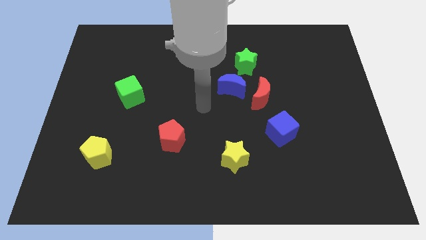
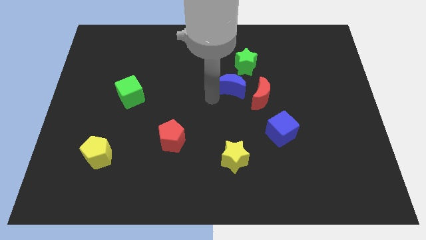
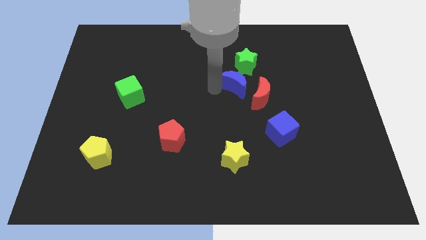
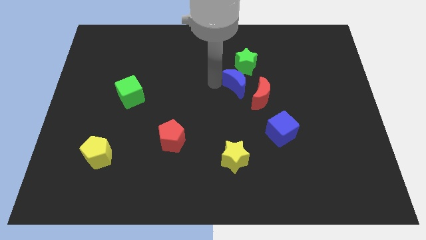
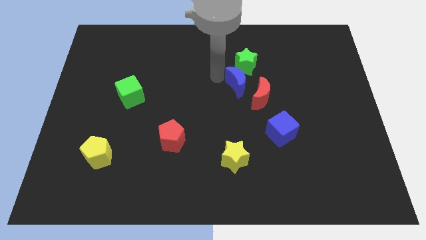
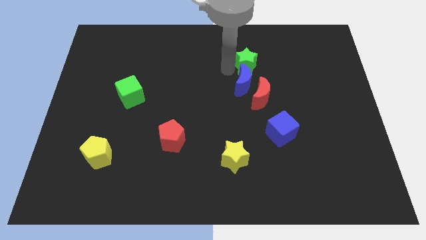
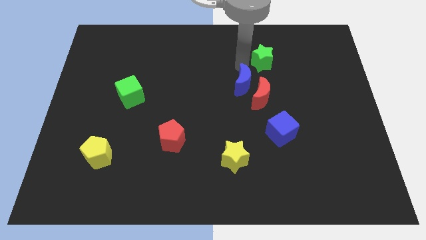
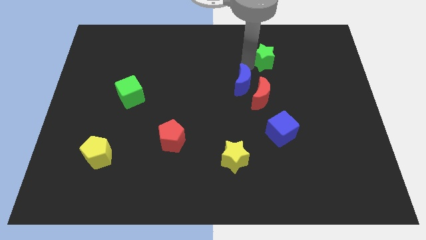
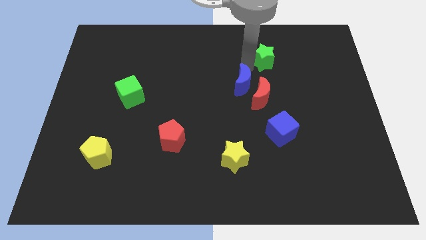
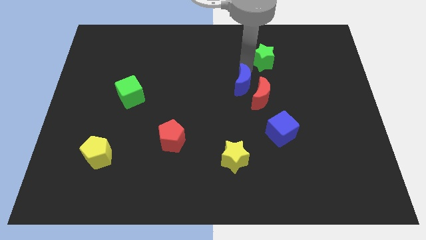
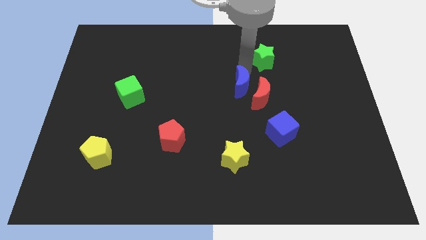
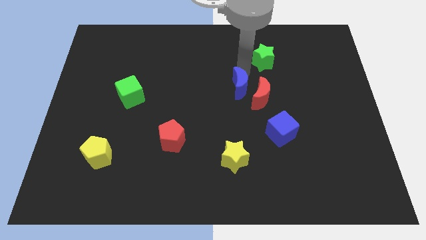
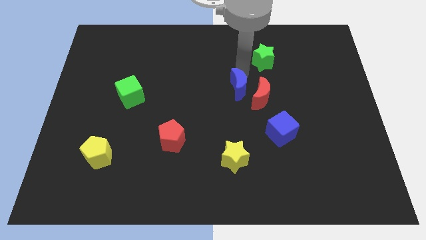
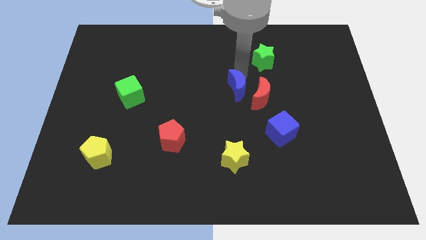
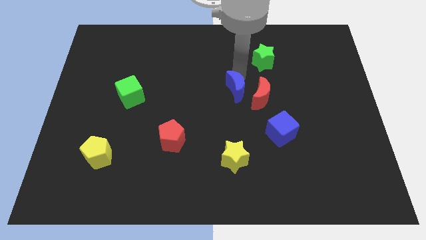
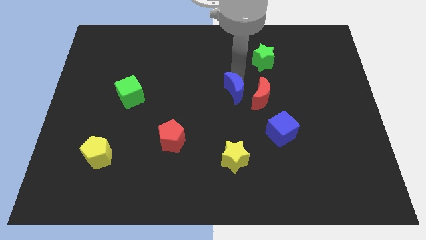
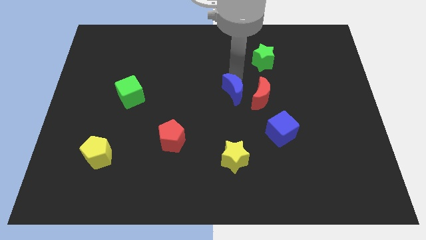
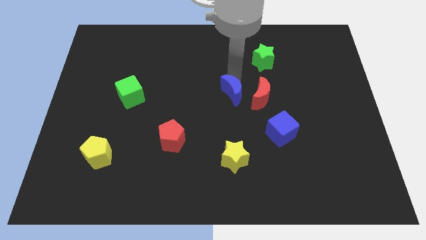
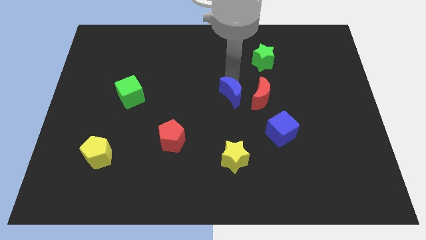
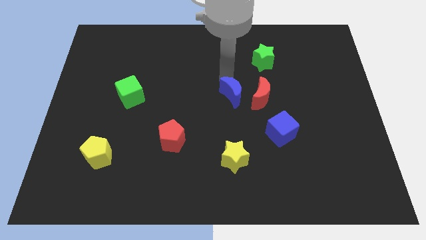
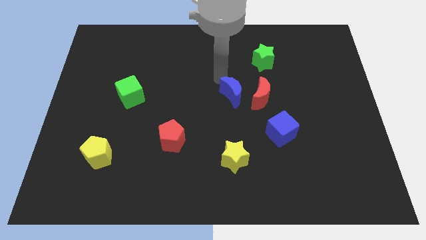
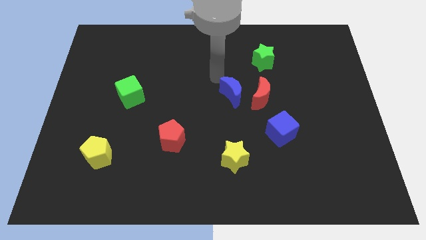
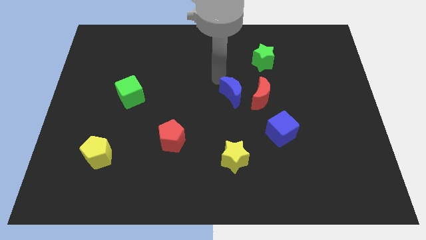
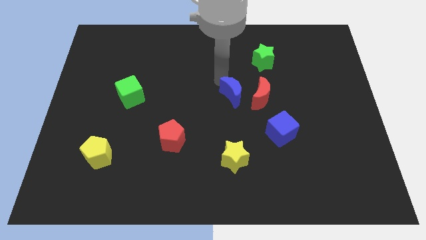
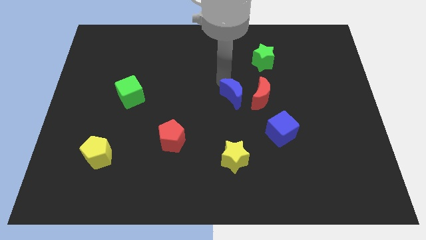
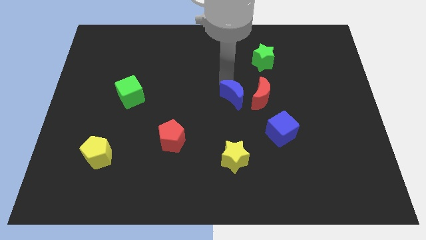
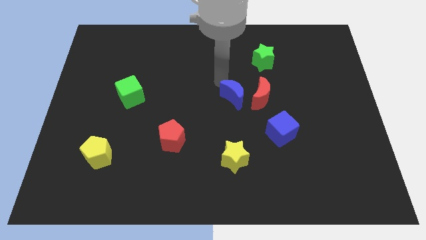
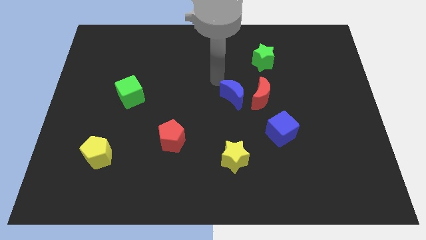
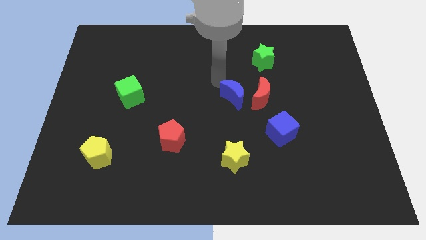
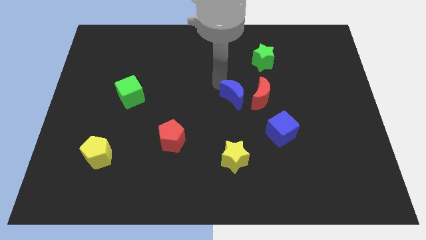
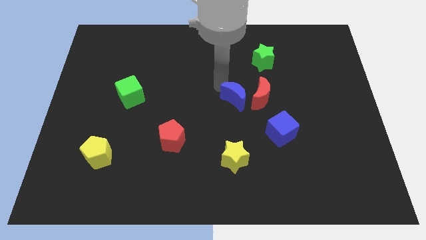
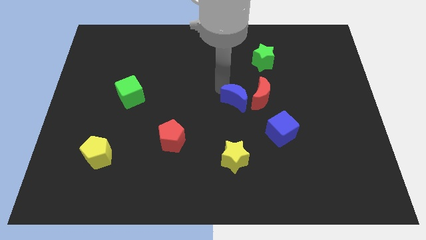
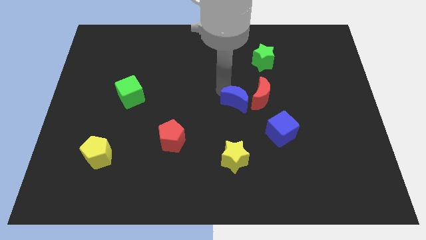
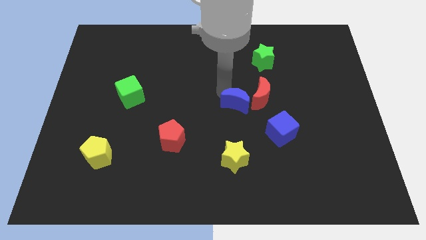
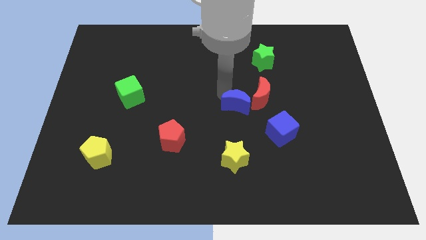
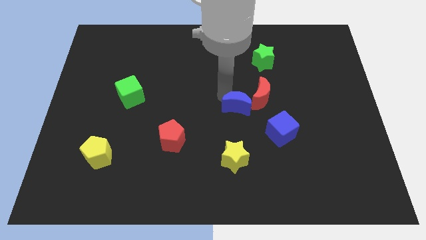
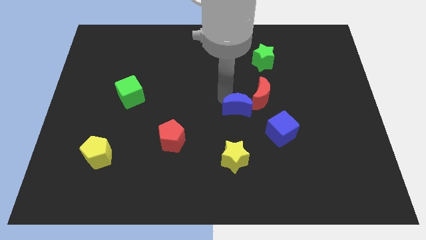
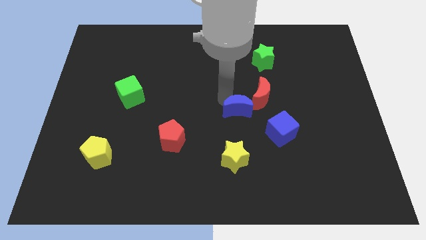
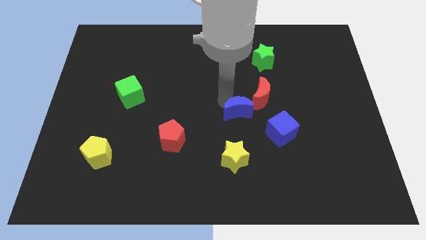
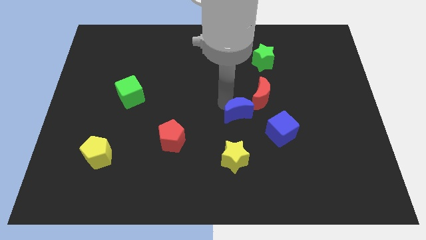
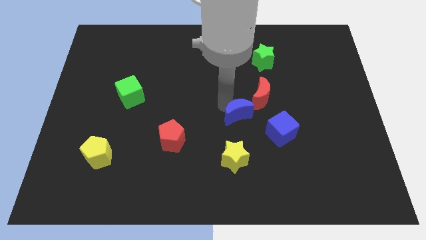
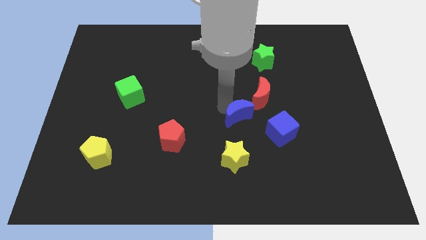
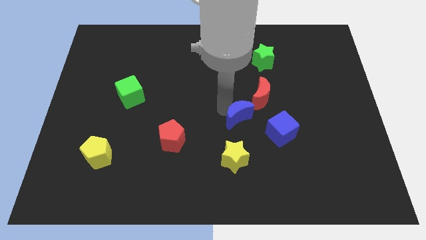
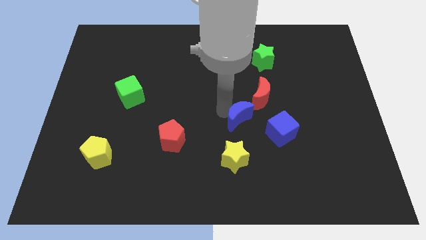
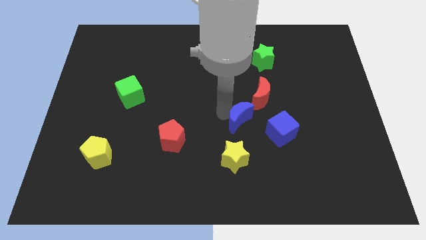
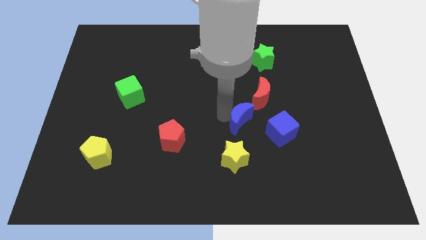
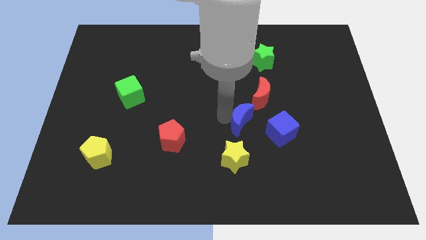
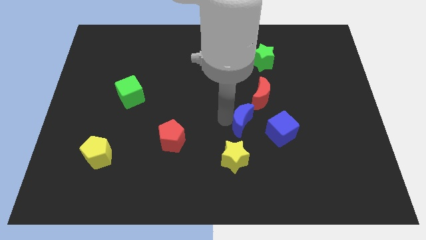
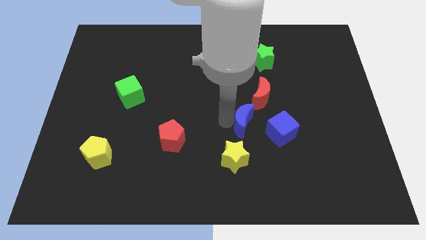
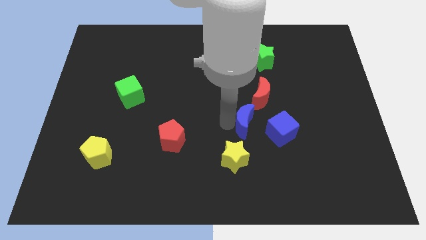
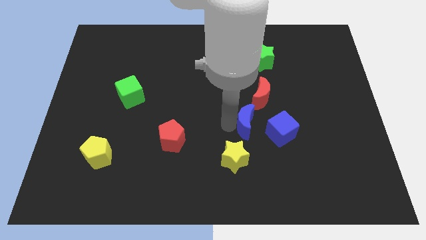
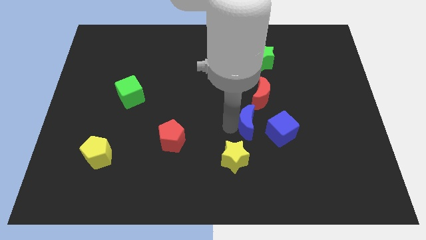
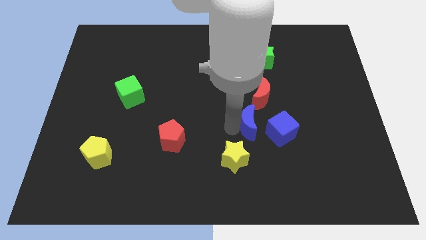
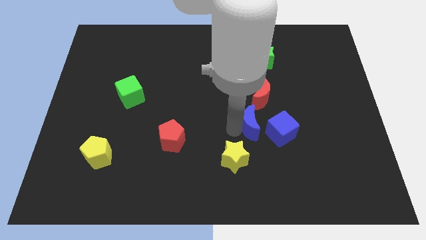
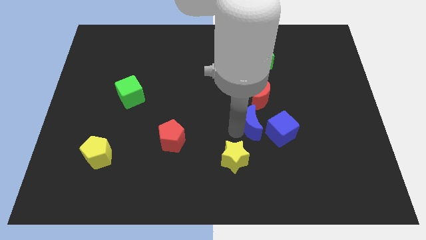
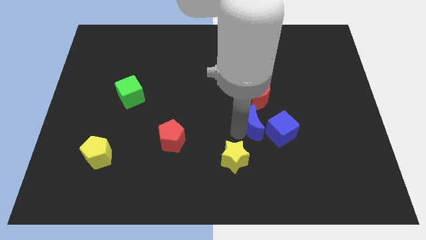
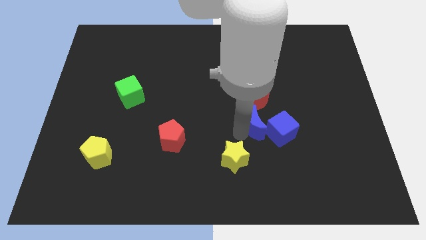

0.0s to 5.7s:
push the blue moon towards the blue cube

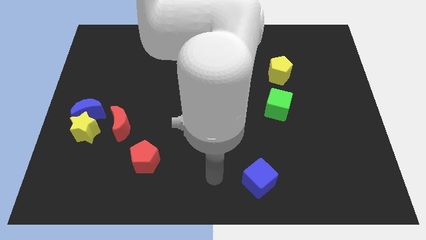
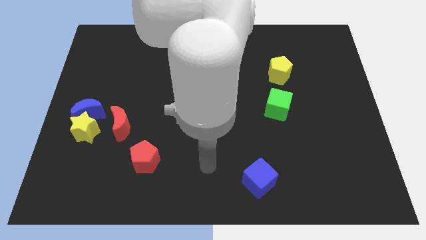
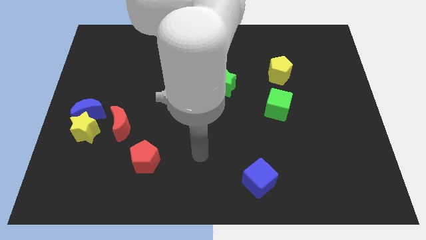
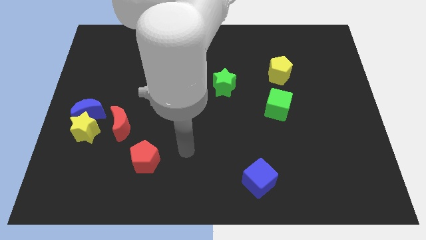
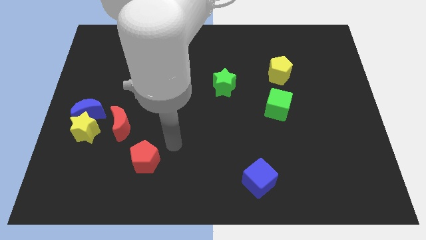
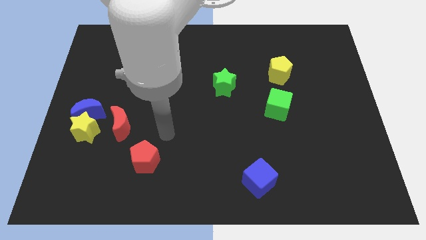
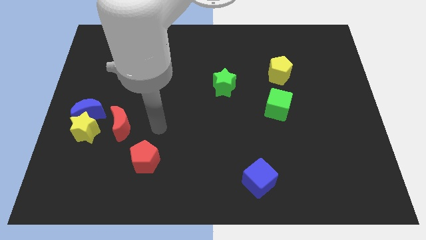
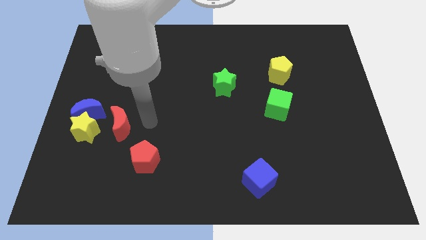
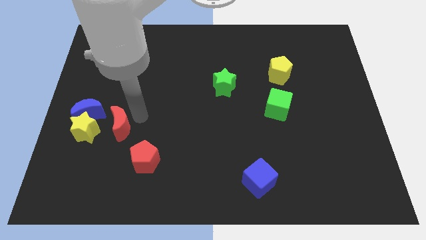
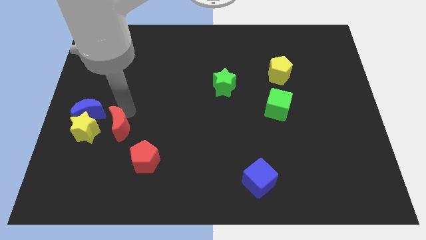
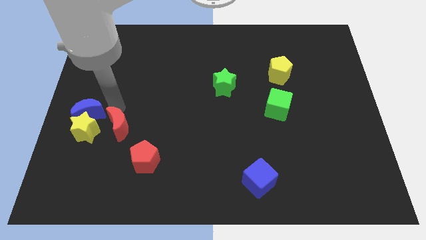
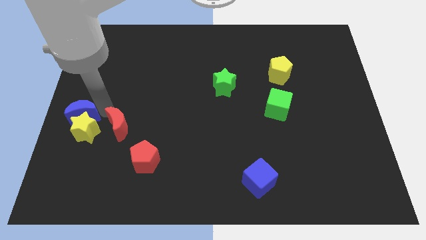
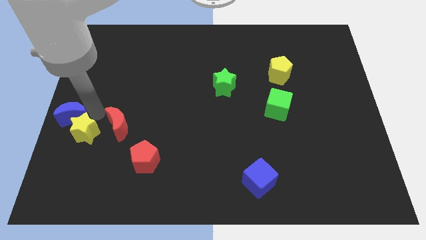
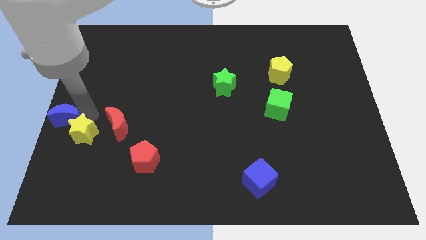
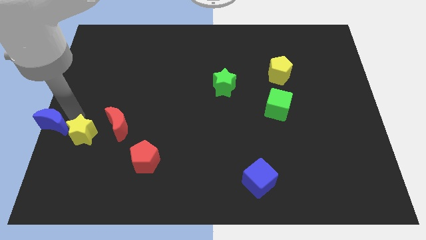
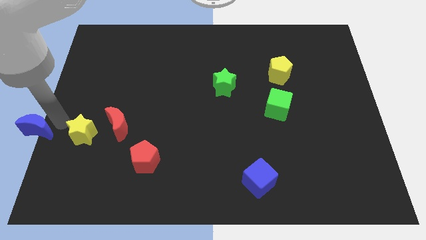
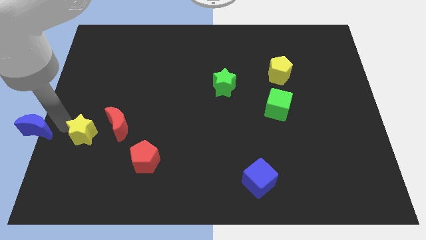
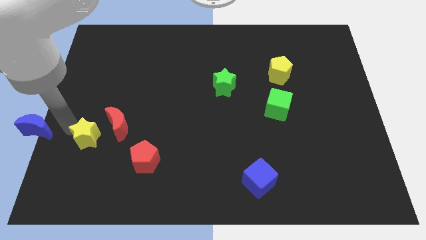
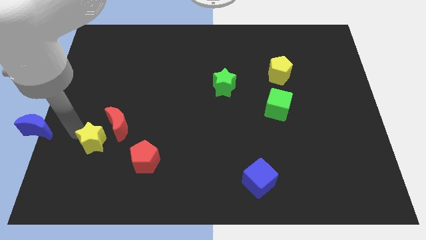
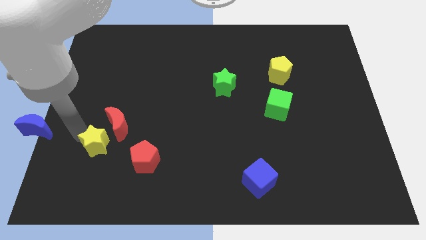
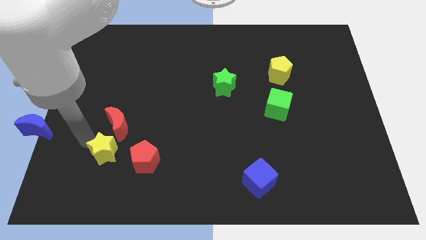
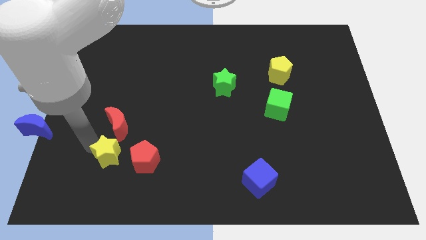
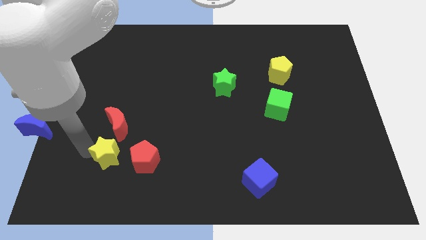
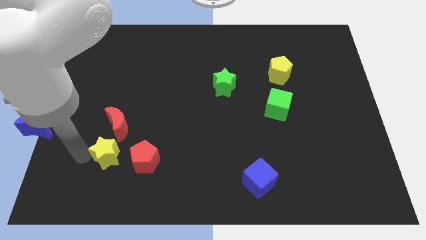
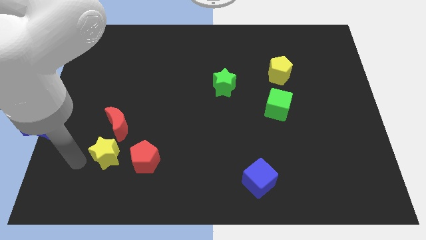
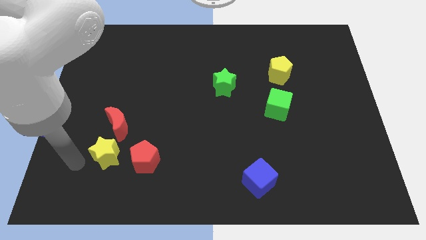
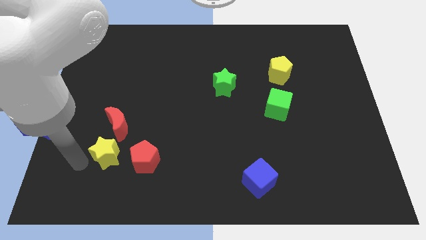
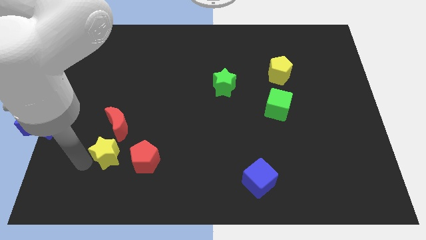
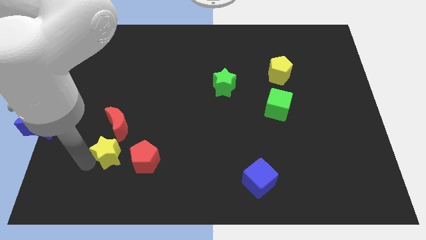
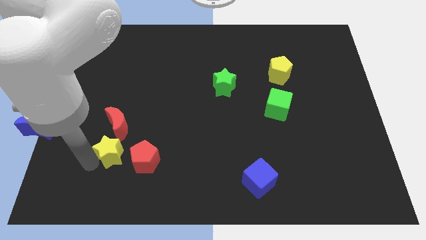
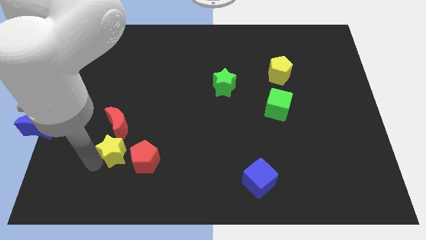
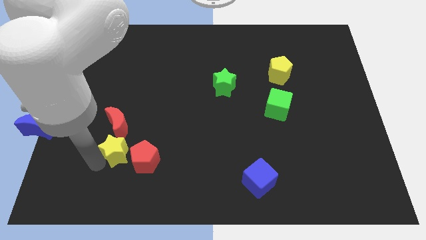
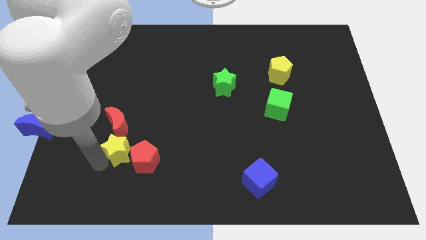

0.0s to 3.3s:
put the yellow star towards the red pentagon
